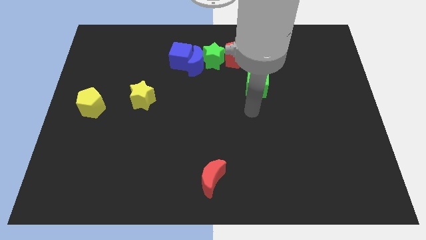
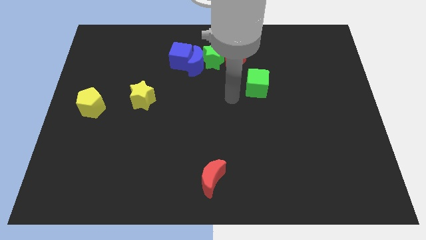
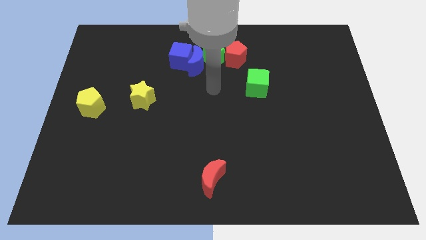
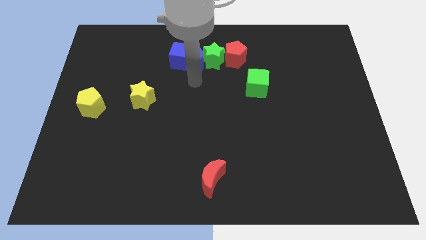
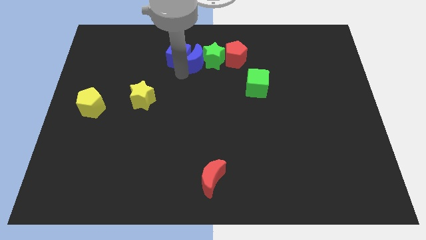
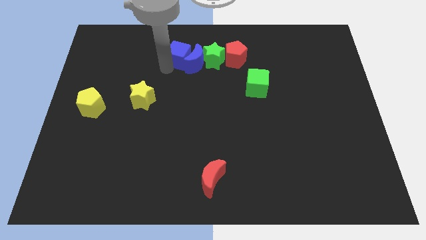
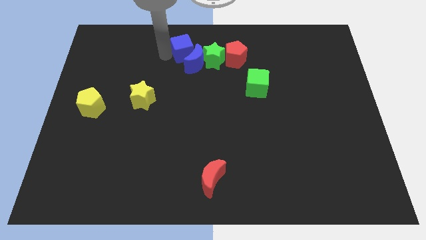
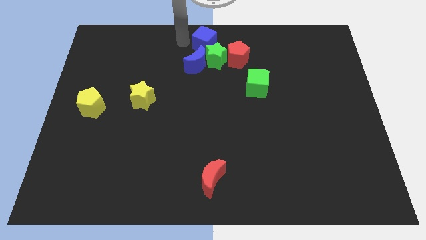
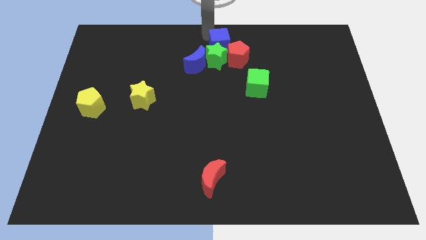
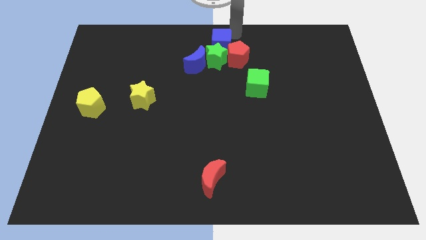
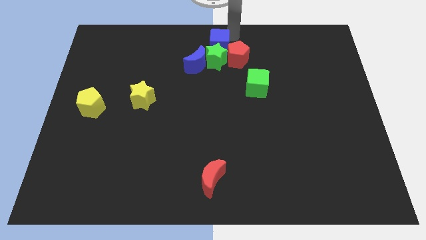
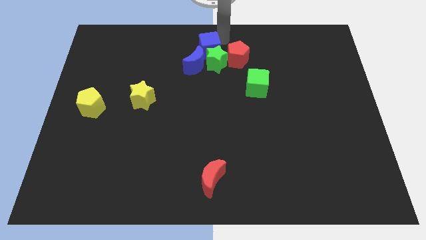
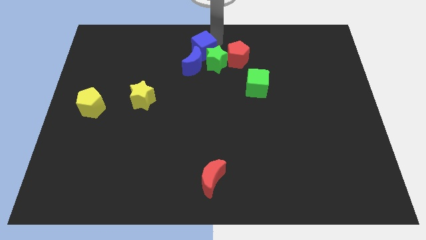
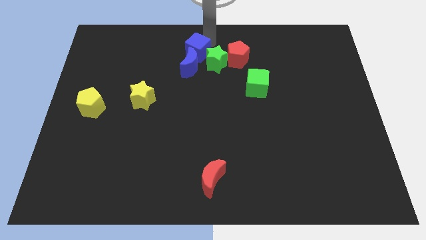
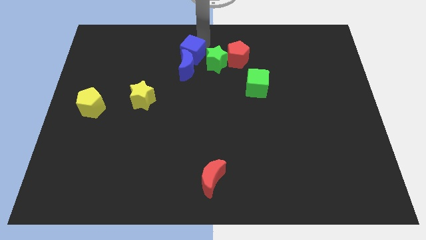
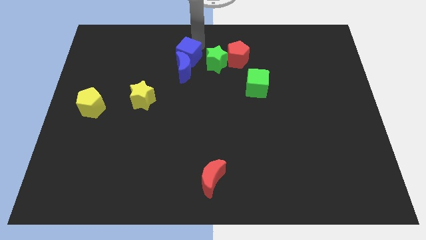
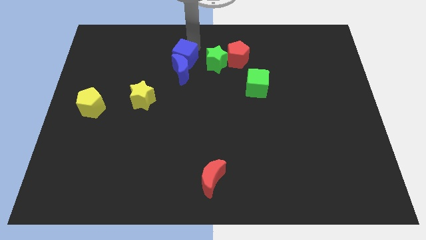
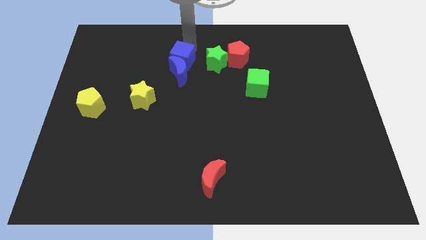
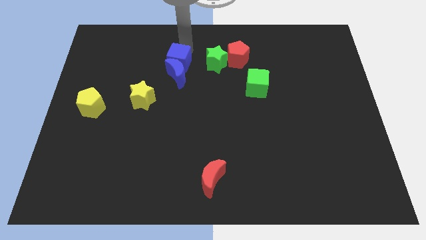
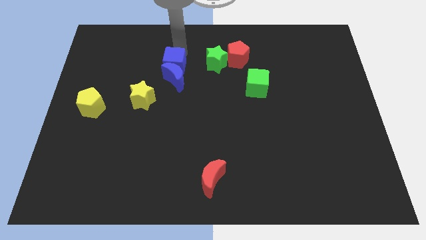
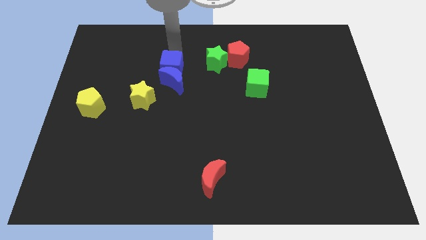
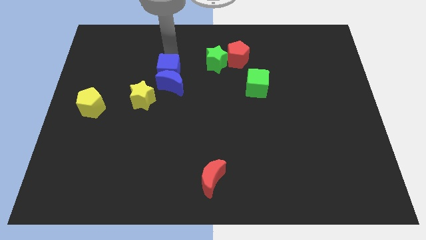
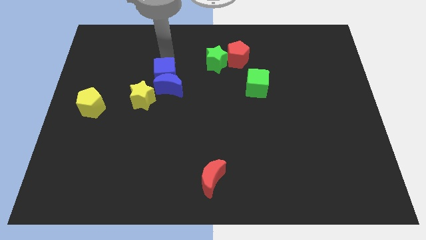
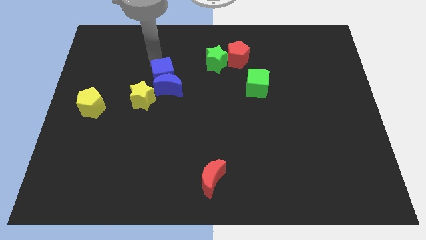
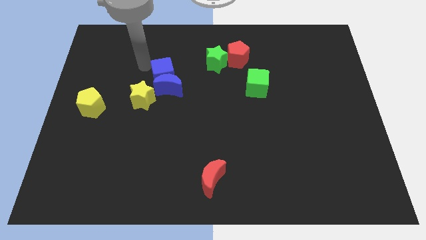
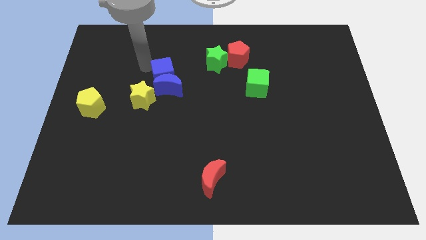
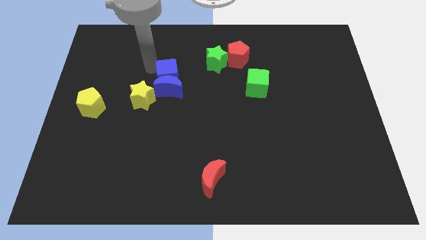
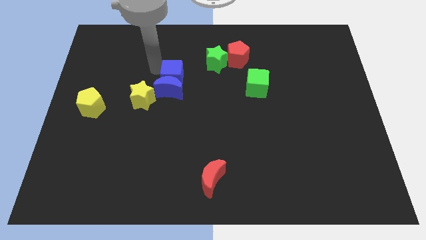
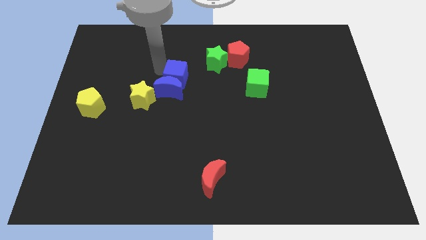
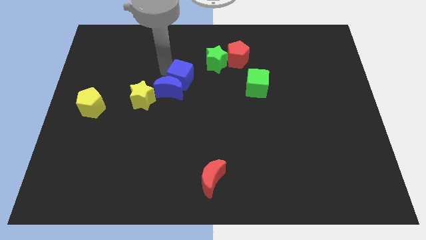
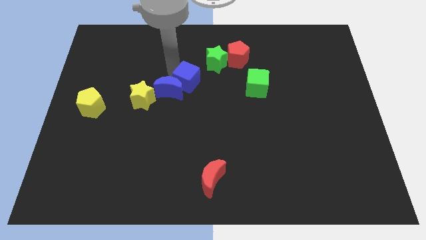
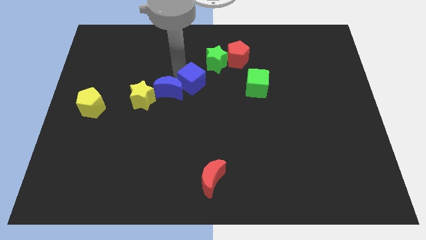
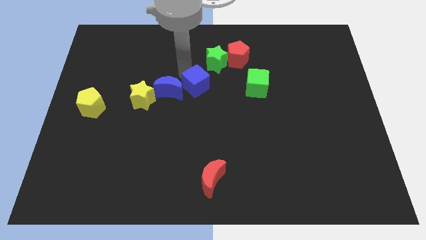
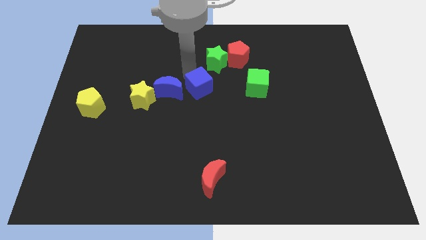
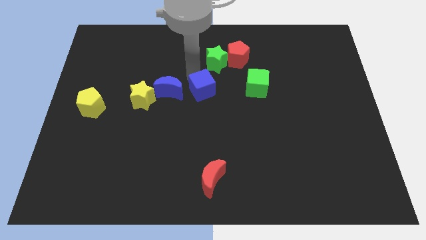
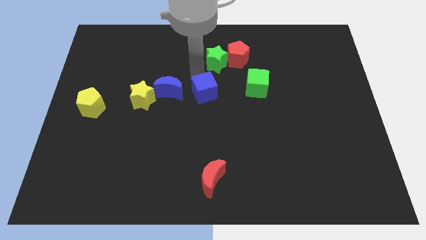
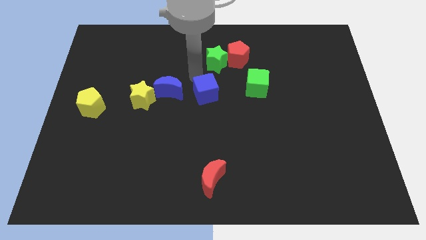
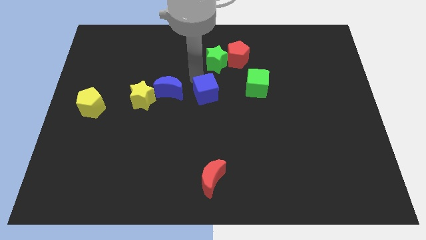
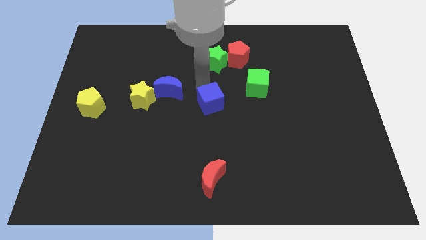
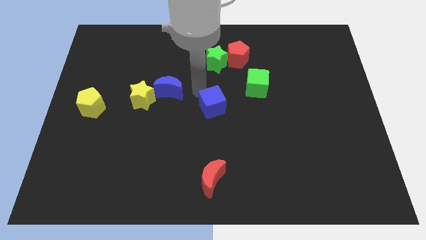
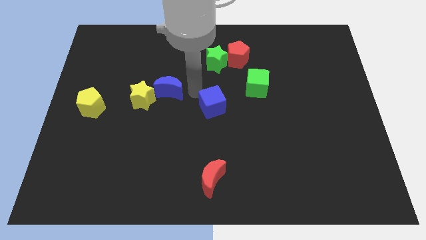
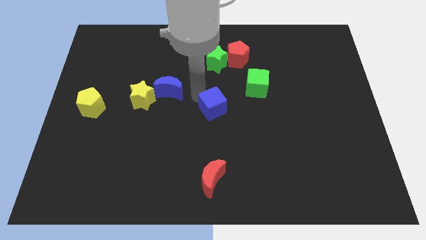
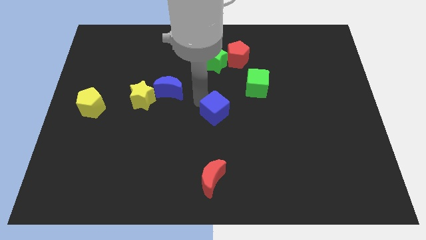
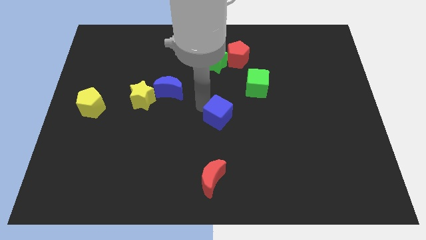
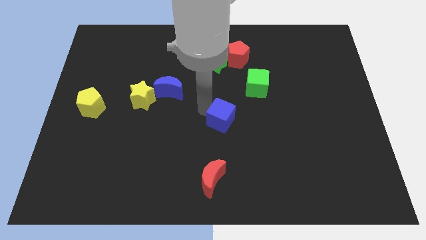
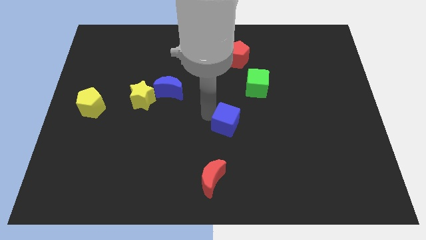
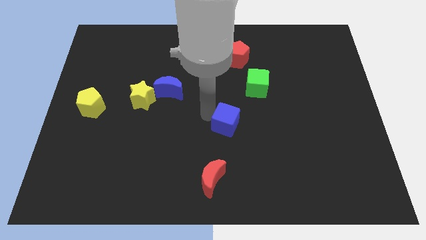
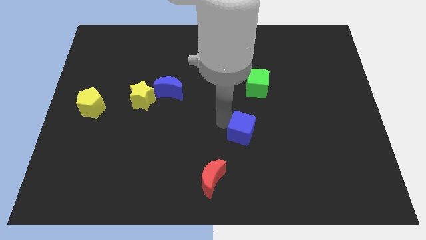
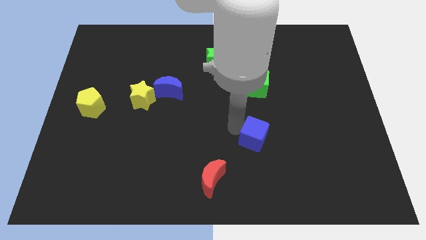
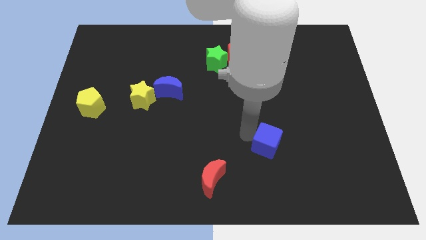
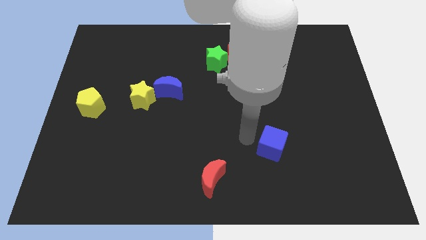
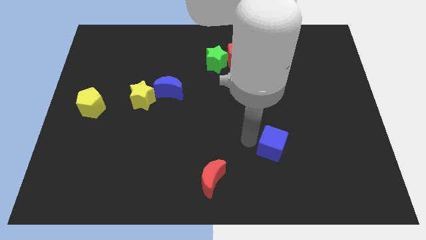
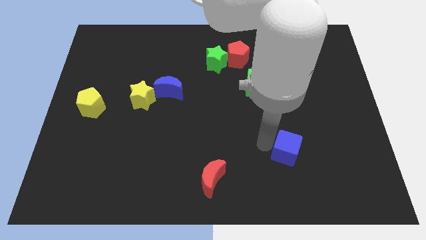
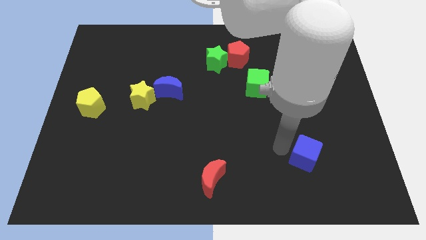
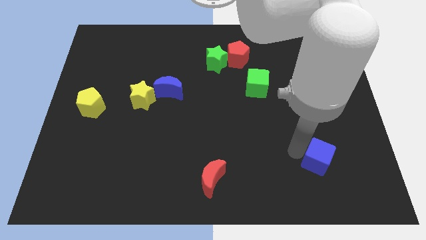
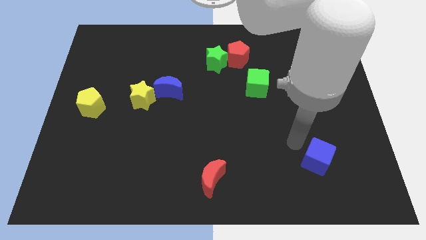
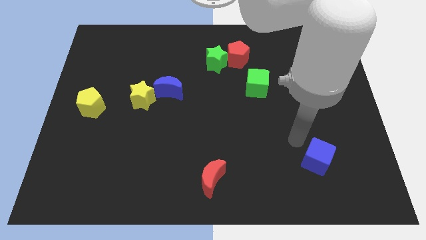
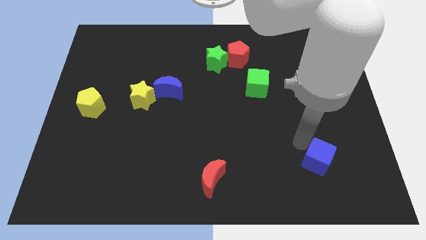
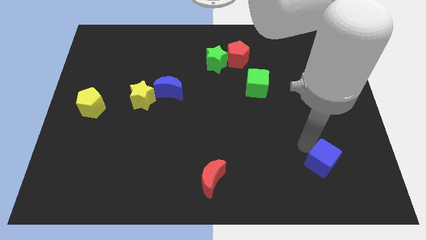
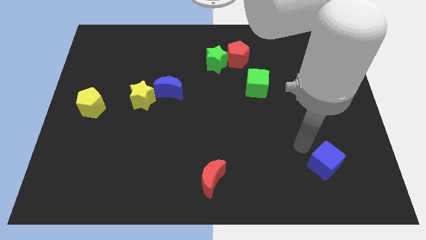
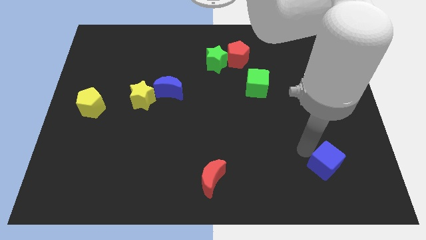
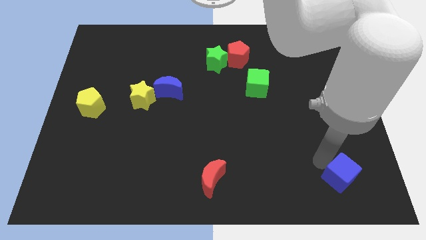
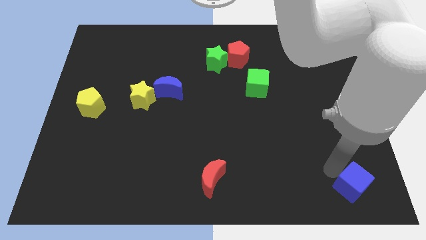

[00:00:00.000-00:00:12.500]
push the blue cube to the lower right corner
